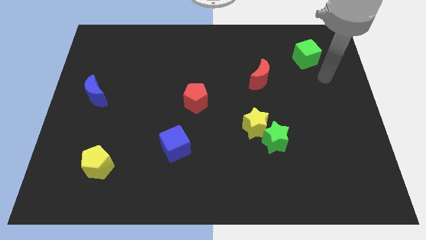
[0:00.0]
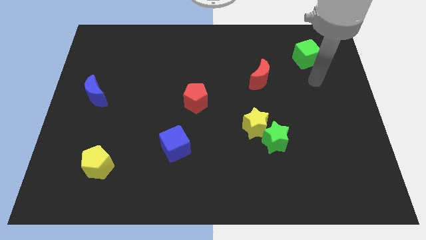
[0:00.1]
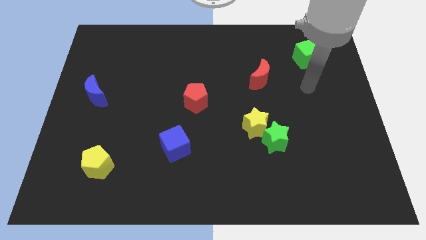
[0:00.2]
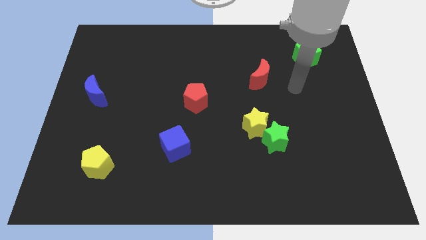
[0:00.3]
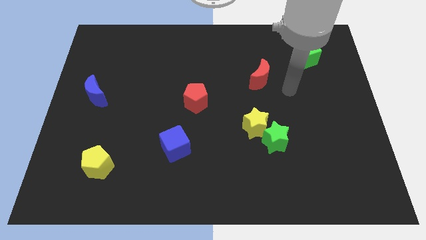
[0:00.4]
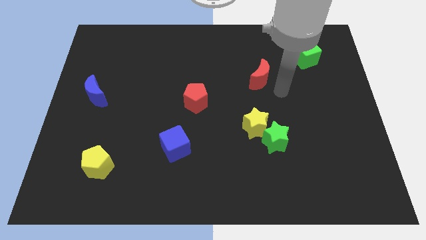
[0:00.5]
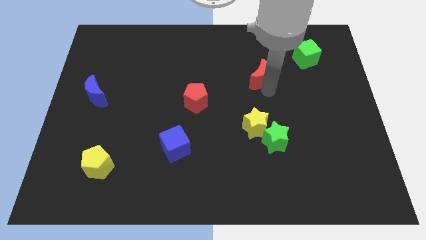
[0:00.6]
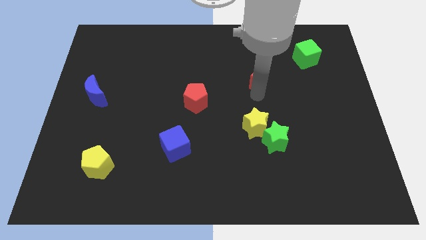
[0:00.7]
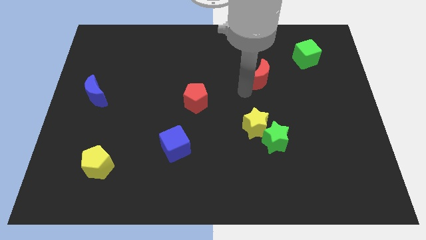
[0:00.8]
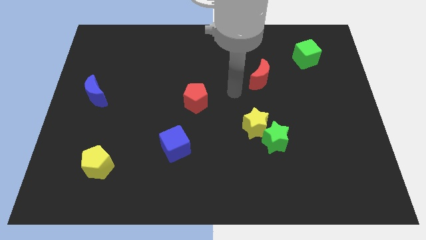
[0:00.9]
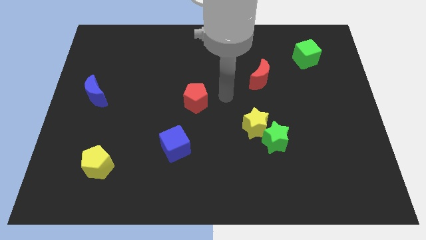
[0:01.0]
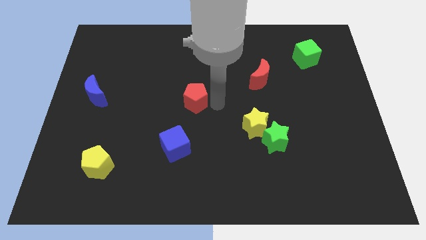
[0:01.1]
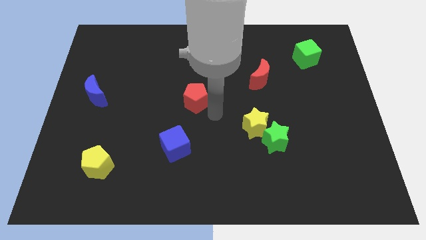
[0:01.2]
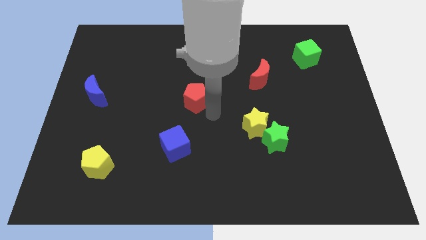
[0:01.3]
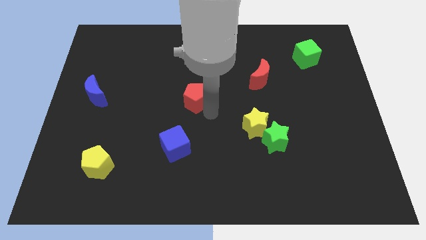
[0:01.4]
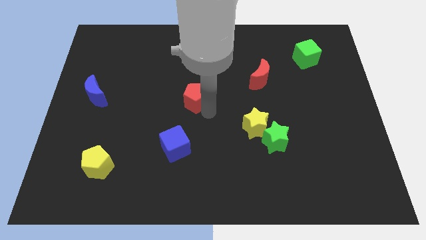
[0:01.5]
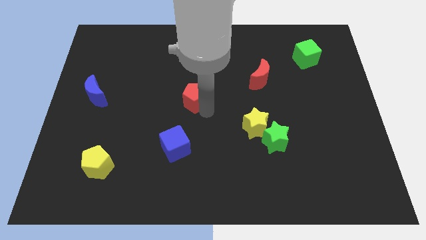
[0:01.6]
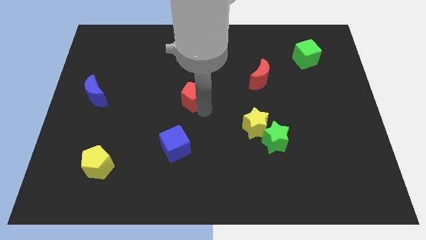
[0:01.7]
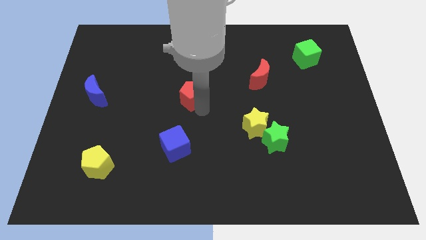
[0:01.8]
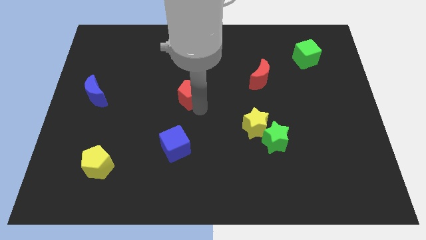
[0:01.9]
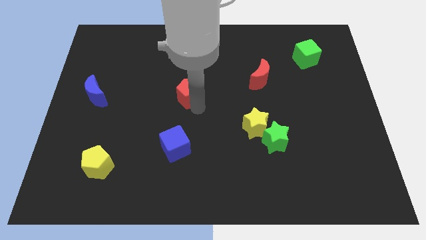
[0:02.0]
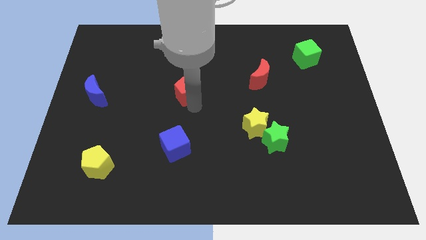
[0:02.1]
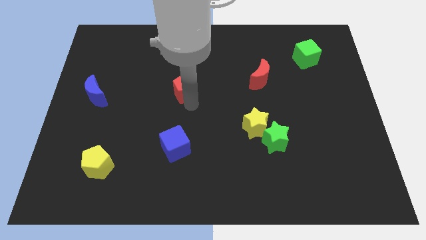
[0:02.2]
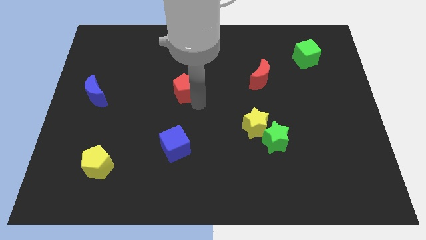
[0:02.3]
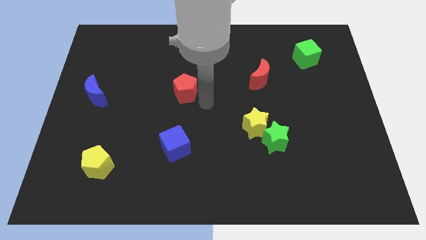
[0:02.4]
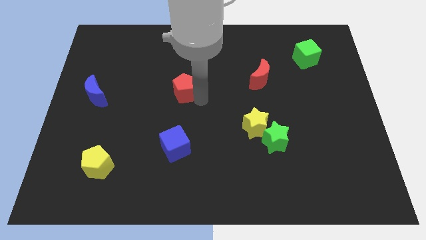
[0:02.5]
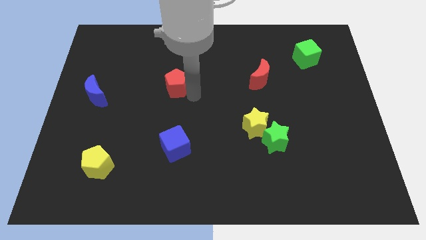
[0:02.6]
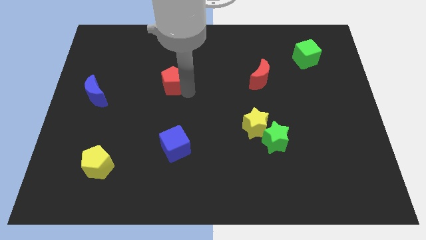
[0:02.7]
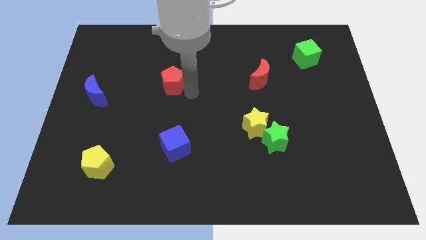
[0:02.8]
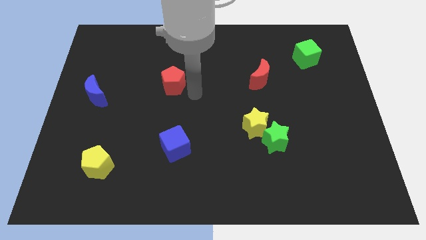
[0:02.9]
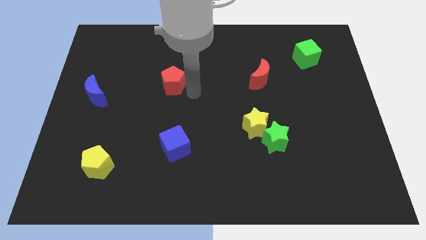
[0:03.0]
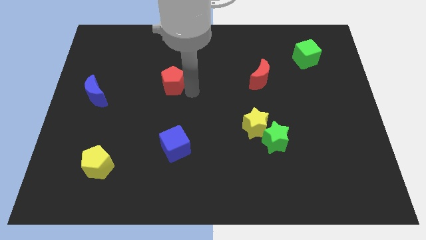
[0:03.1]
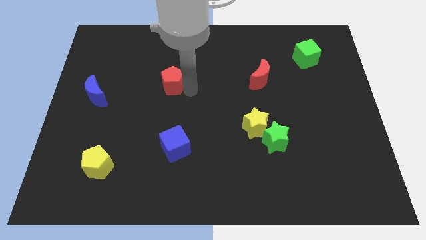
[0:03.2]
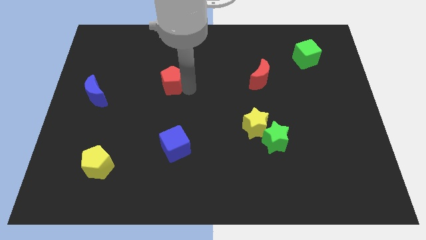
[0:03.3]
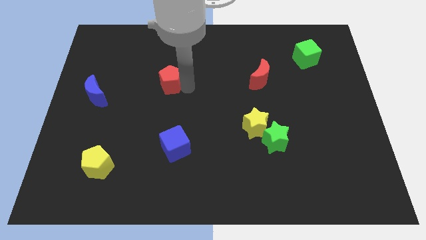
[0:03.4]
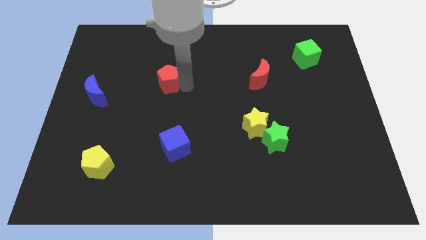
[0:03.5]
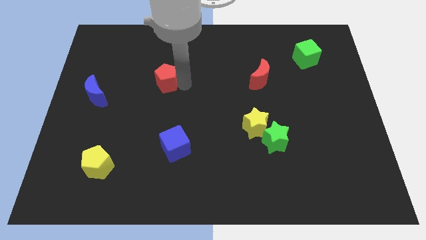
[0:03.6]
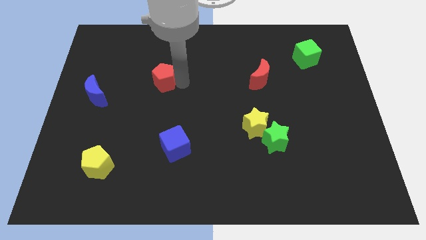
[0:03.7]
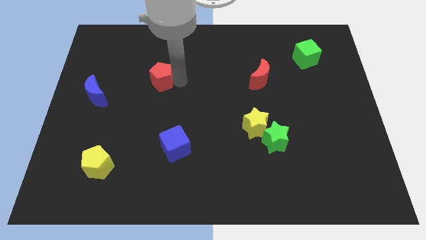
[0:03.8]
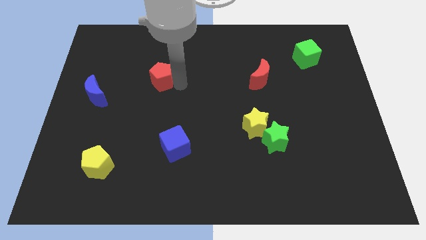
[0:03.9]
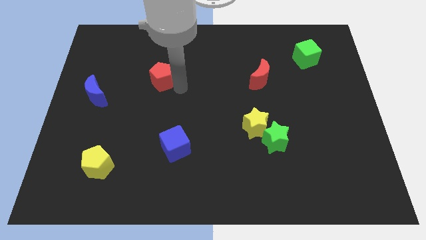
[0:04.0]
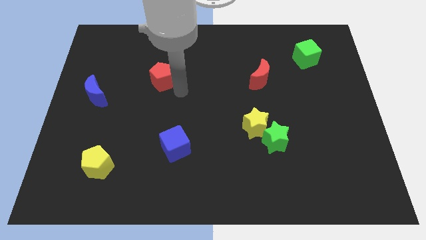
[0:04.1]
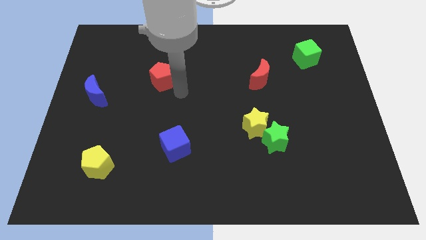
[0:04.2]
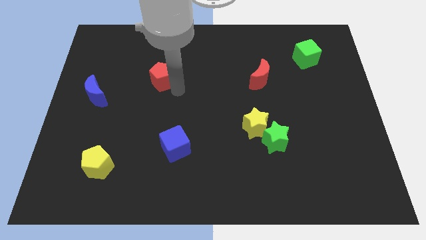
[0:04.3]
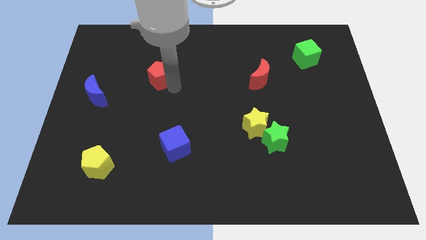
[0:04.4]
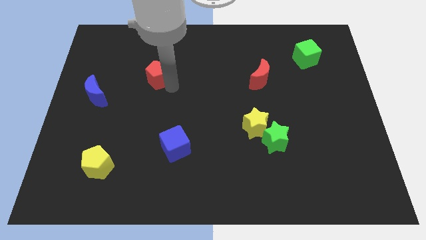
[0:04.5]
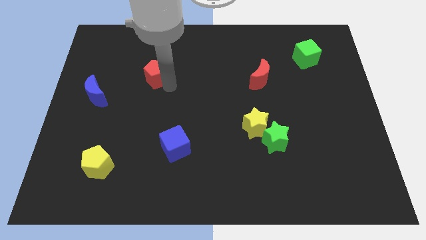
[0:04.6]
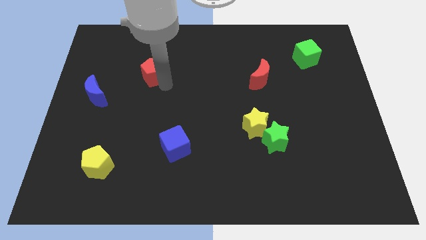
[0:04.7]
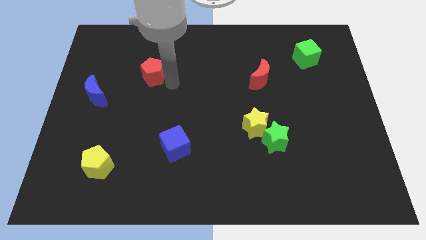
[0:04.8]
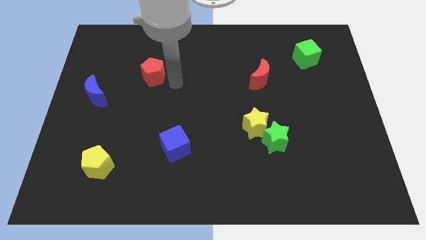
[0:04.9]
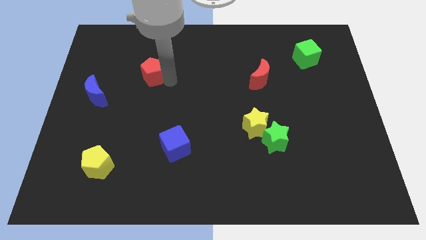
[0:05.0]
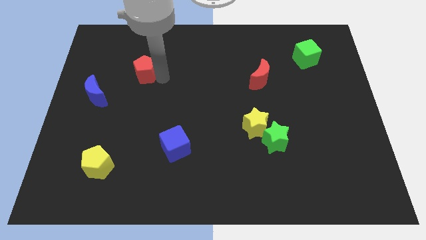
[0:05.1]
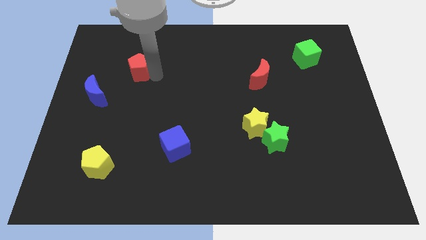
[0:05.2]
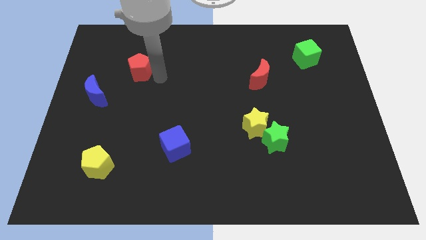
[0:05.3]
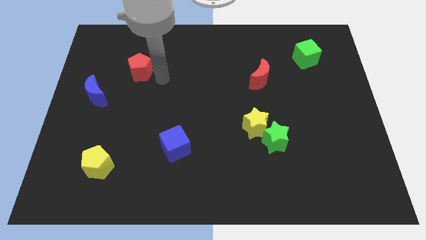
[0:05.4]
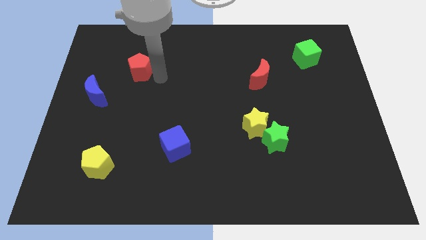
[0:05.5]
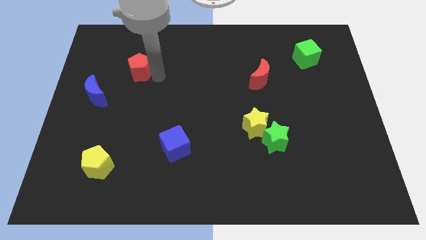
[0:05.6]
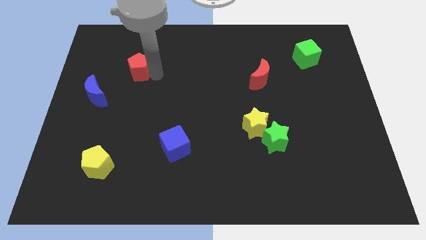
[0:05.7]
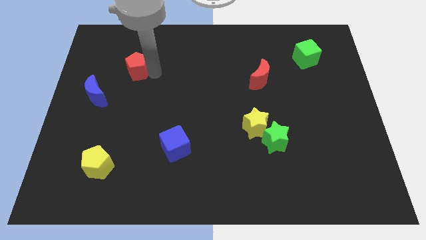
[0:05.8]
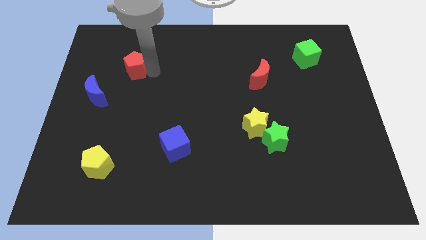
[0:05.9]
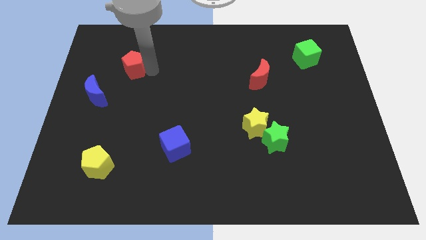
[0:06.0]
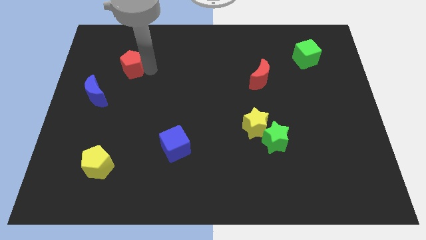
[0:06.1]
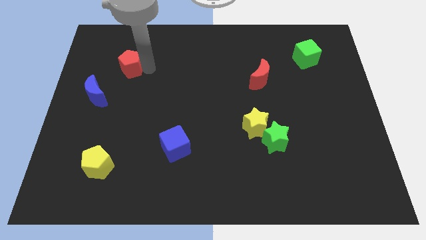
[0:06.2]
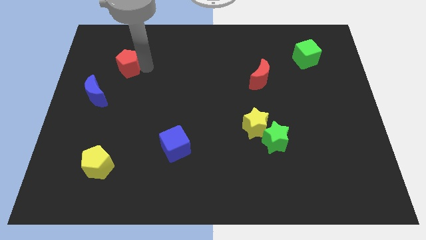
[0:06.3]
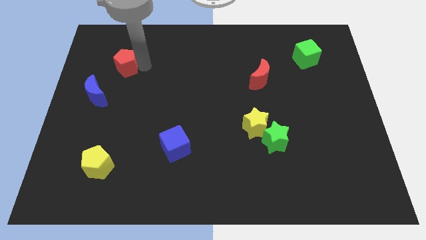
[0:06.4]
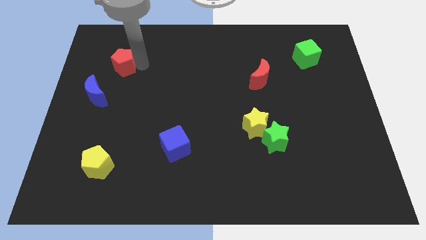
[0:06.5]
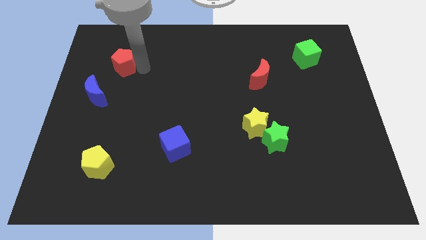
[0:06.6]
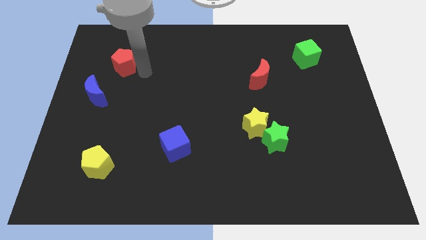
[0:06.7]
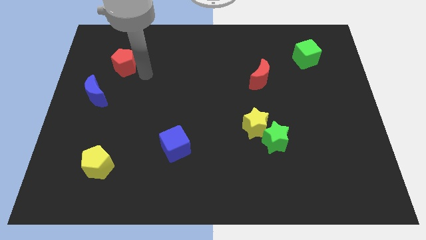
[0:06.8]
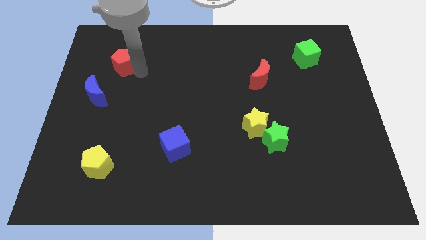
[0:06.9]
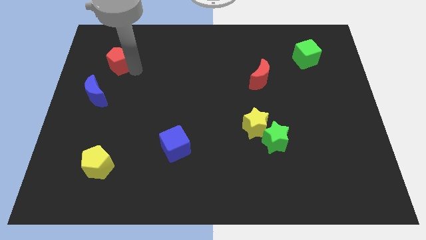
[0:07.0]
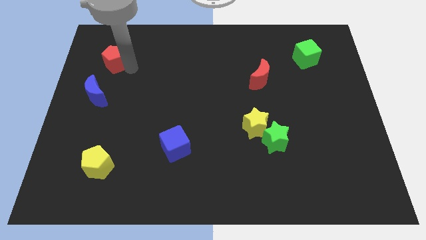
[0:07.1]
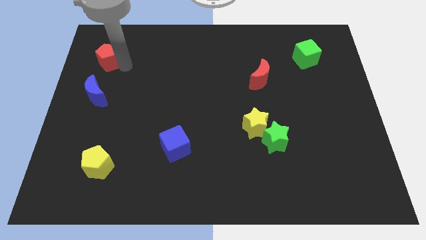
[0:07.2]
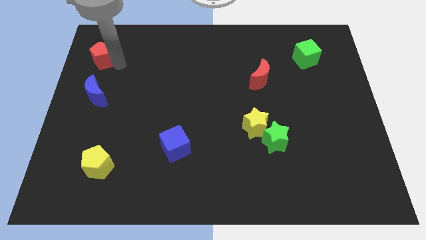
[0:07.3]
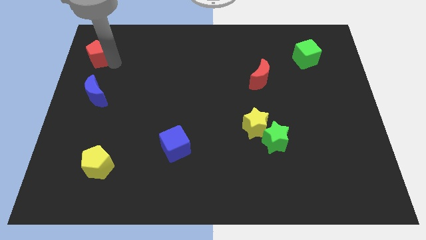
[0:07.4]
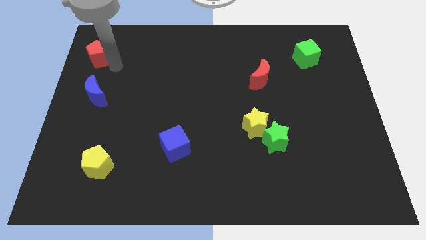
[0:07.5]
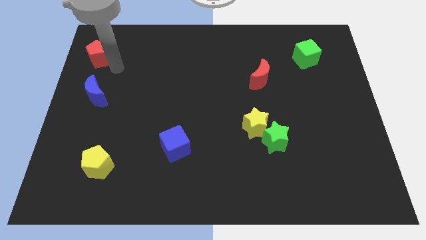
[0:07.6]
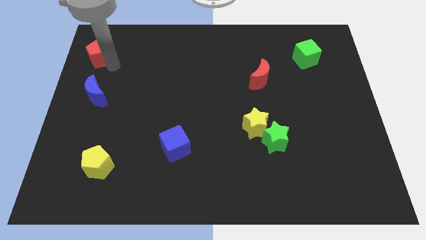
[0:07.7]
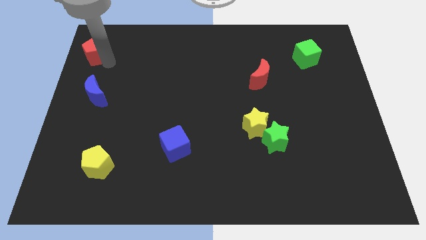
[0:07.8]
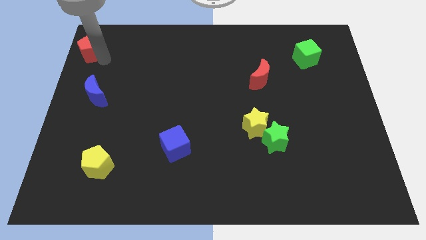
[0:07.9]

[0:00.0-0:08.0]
slide the red pentagon to the top left corner
